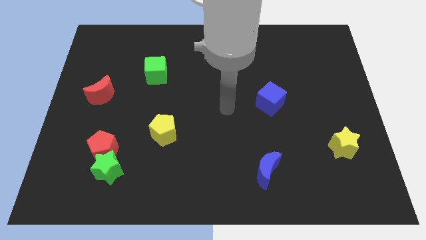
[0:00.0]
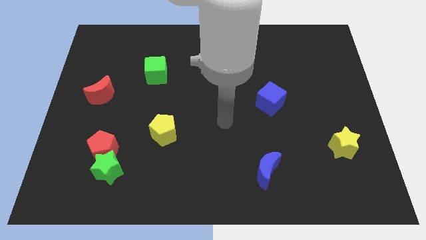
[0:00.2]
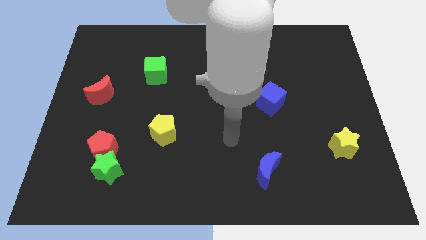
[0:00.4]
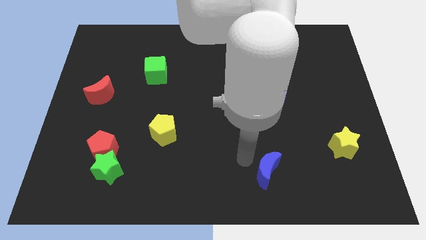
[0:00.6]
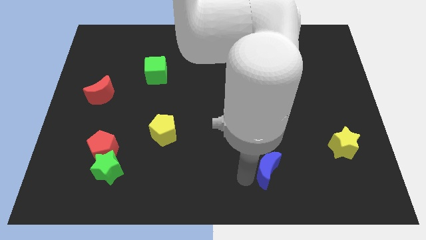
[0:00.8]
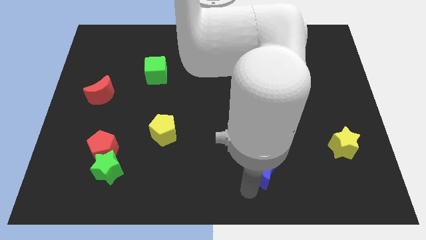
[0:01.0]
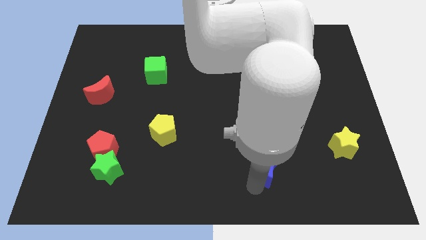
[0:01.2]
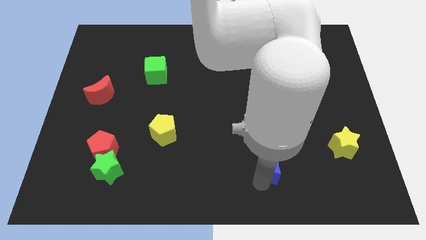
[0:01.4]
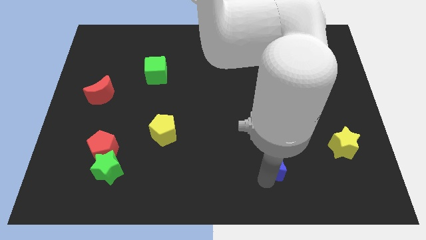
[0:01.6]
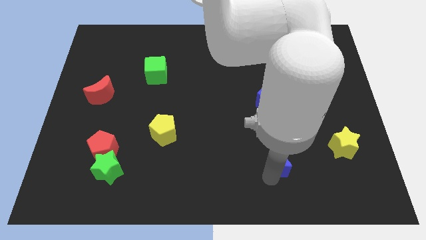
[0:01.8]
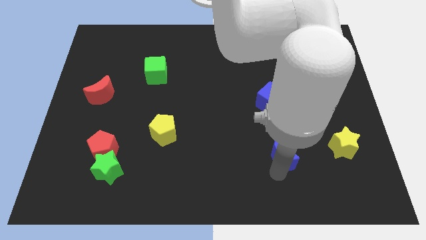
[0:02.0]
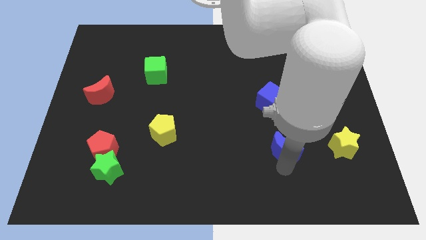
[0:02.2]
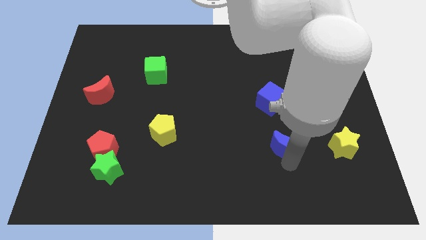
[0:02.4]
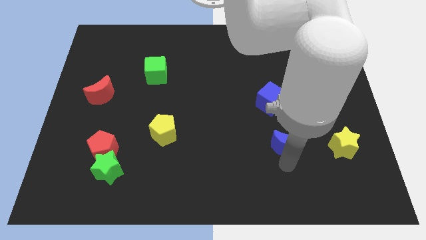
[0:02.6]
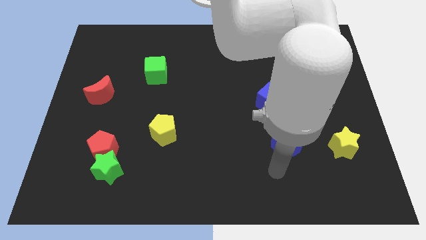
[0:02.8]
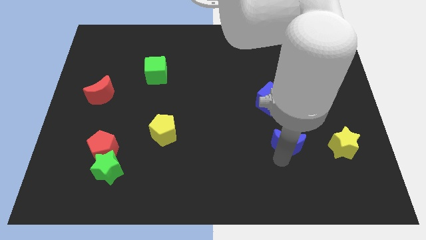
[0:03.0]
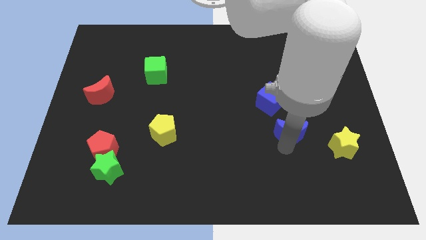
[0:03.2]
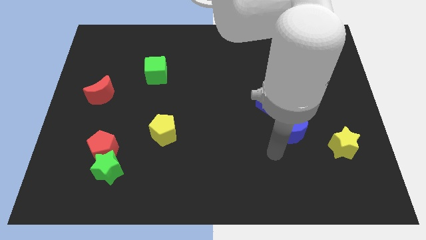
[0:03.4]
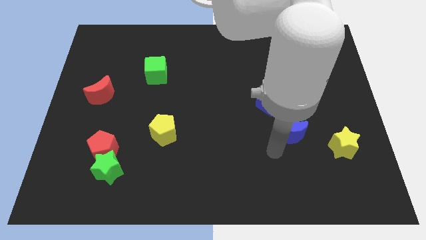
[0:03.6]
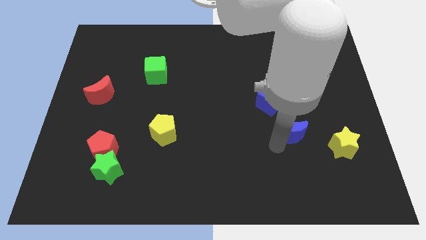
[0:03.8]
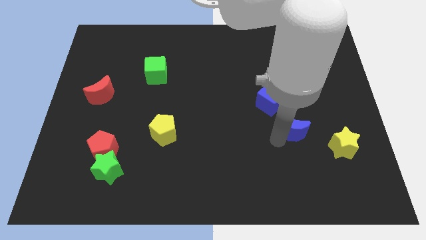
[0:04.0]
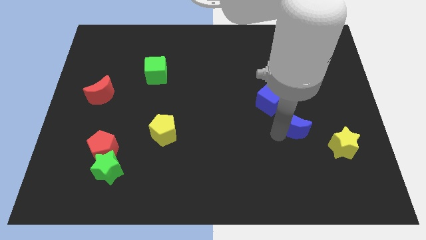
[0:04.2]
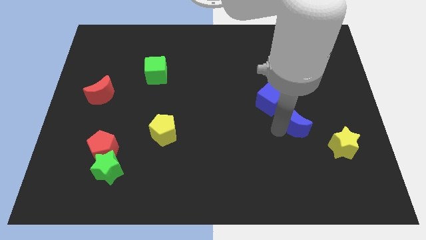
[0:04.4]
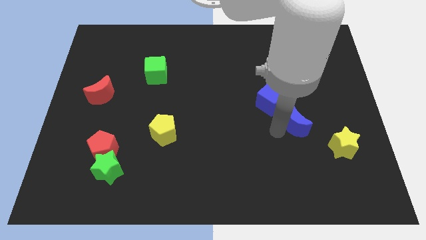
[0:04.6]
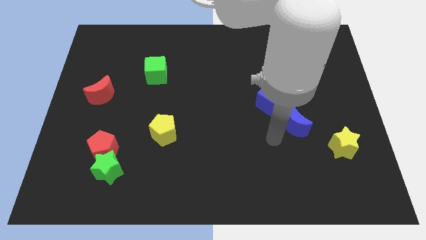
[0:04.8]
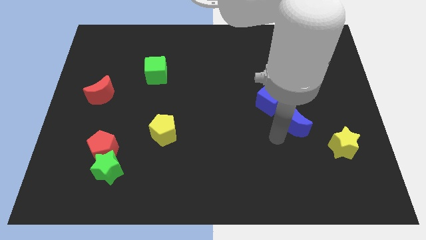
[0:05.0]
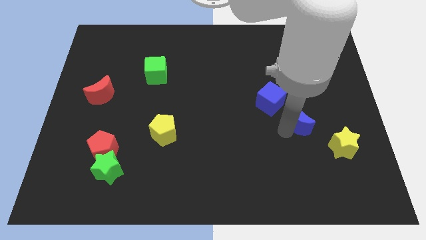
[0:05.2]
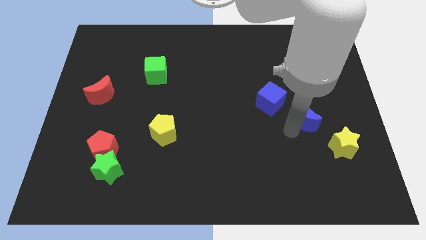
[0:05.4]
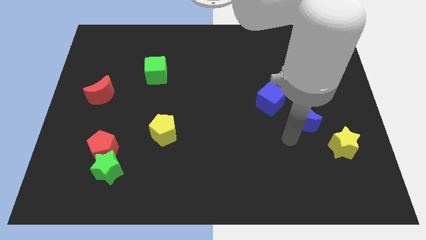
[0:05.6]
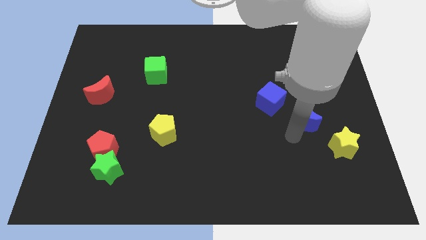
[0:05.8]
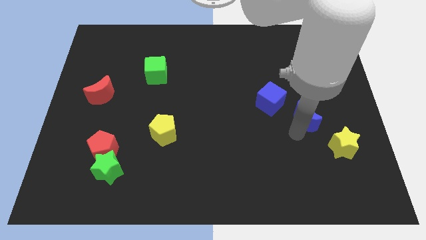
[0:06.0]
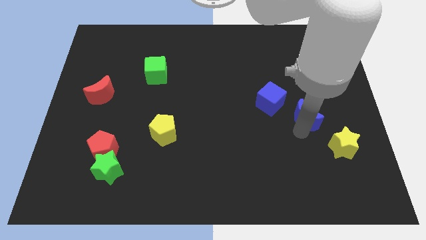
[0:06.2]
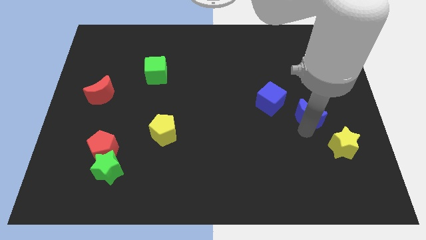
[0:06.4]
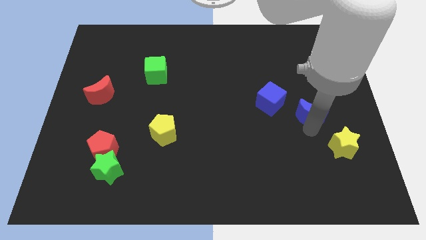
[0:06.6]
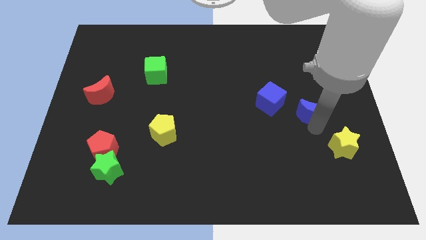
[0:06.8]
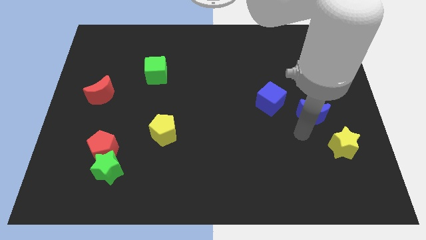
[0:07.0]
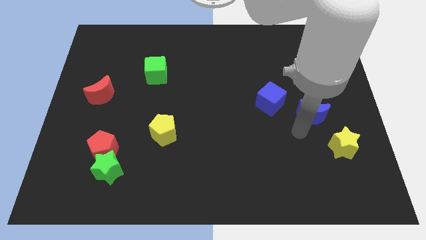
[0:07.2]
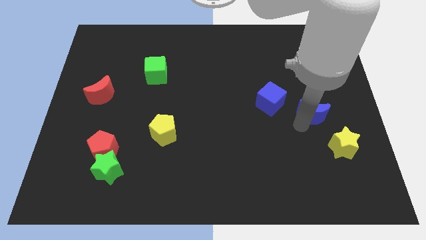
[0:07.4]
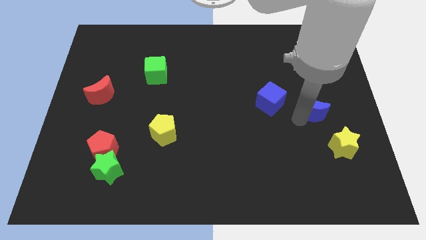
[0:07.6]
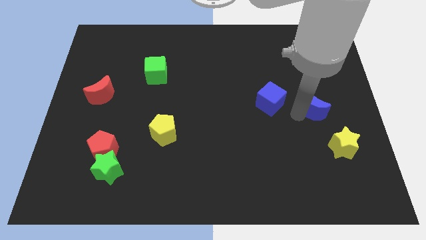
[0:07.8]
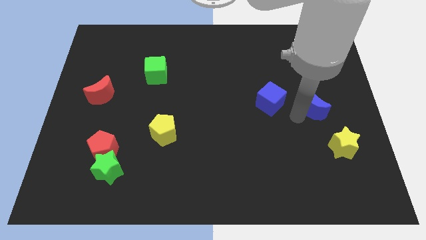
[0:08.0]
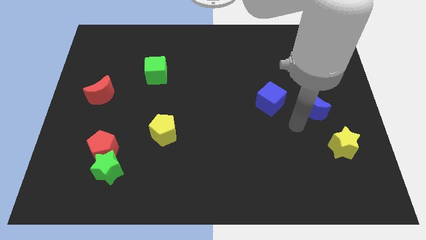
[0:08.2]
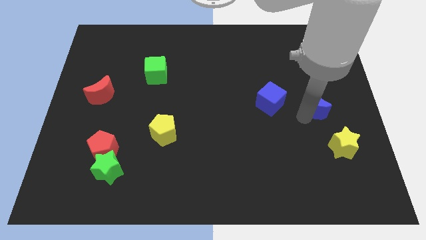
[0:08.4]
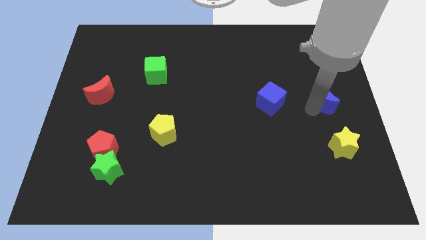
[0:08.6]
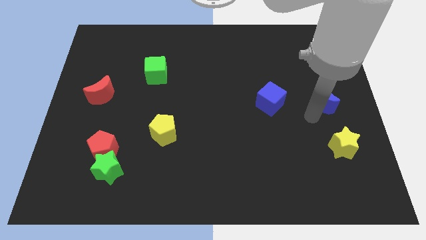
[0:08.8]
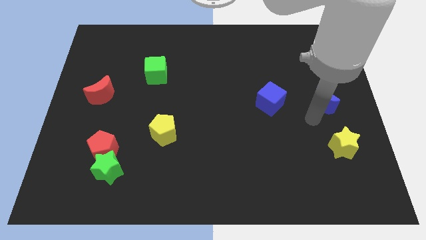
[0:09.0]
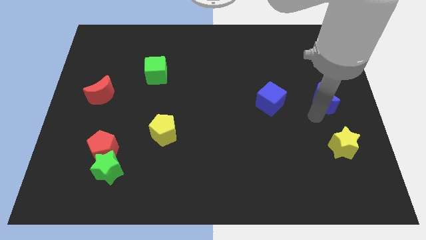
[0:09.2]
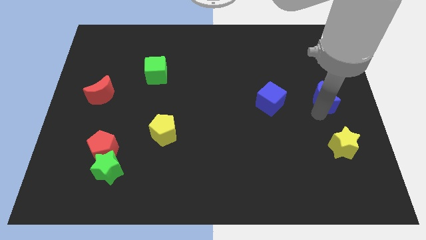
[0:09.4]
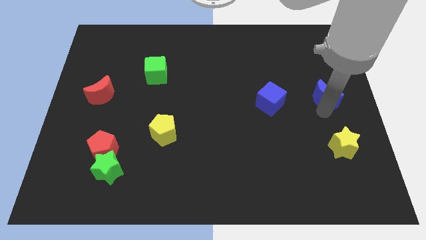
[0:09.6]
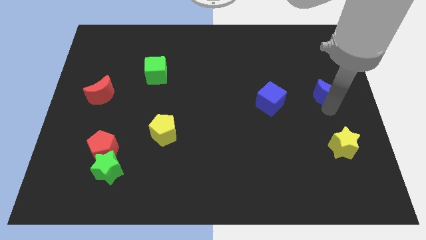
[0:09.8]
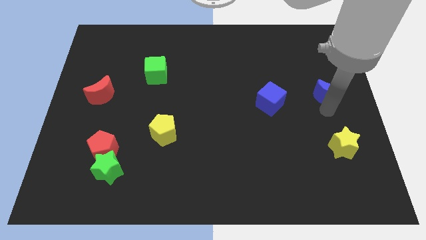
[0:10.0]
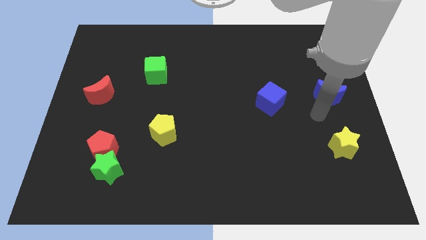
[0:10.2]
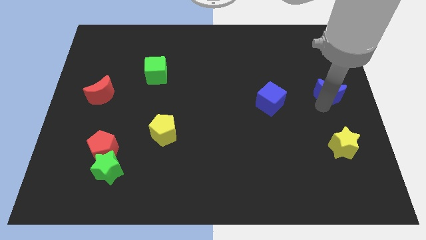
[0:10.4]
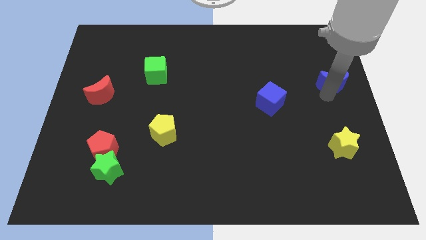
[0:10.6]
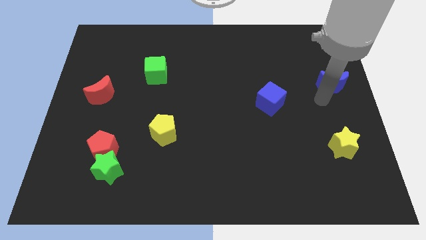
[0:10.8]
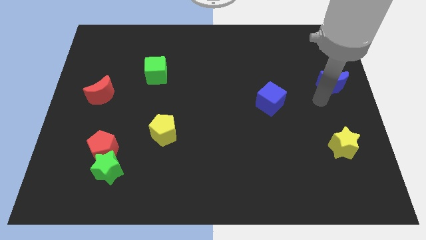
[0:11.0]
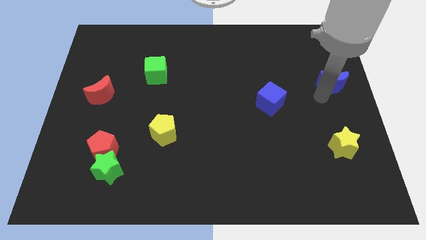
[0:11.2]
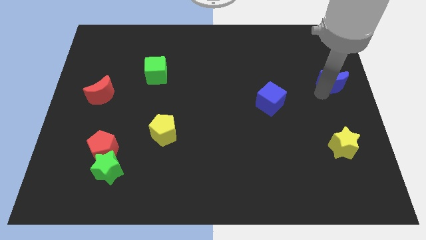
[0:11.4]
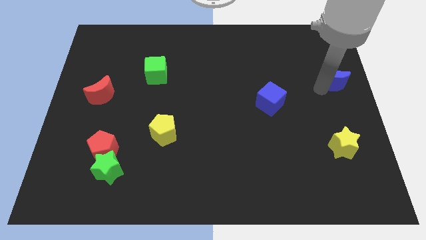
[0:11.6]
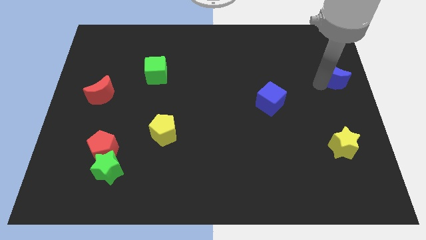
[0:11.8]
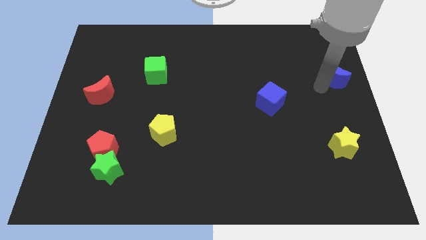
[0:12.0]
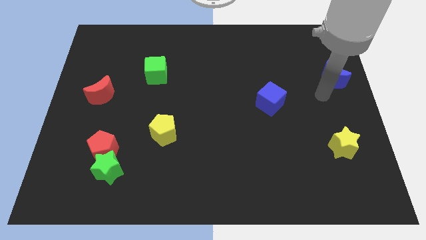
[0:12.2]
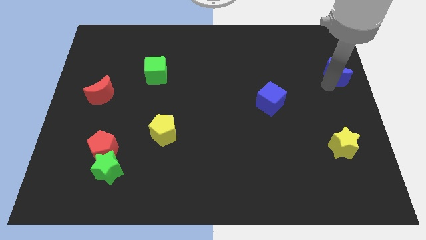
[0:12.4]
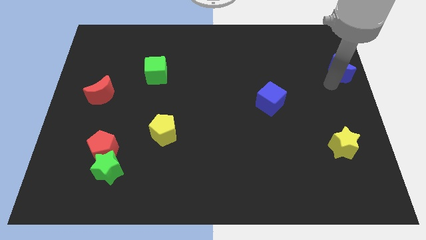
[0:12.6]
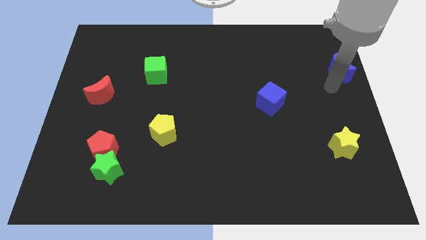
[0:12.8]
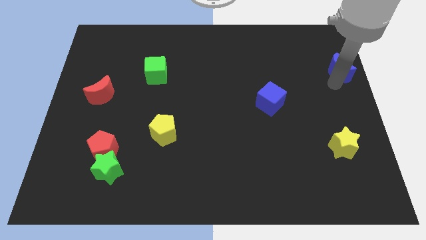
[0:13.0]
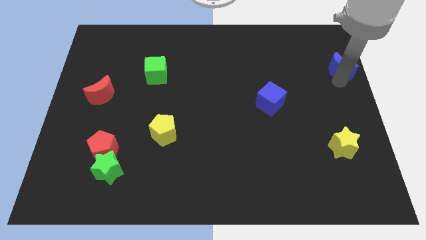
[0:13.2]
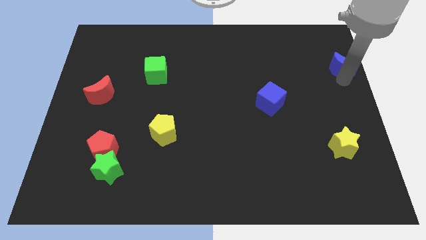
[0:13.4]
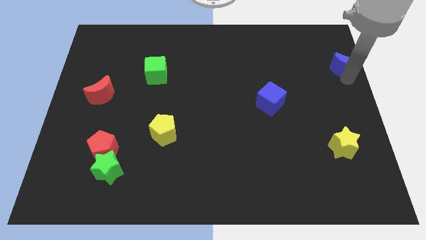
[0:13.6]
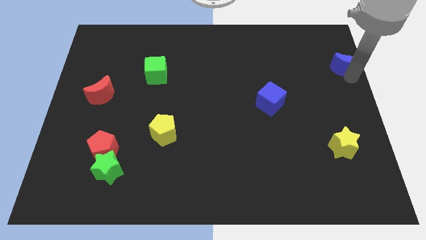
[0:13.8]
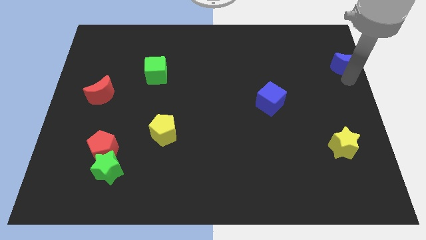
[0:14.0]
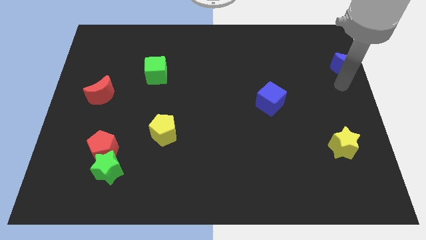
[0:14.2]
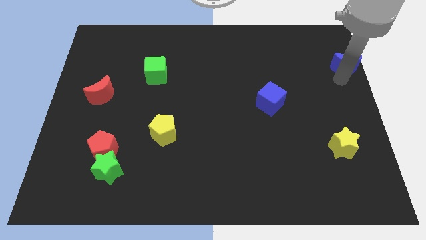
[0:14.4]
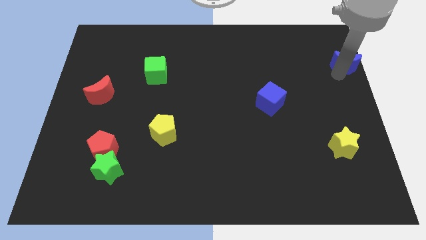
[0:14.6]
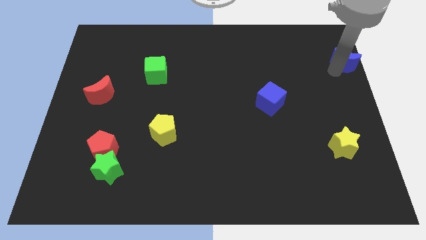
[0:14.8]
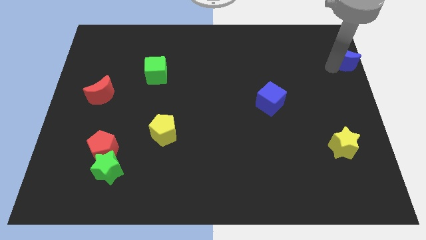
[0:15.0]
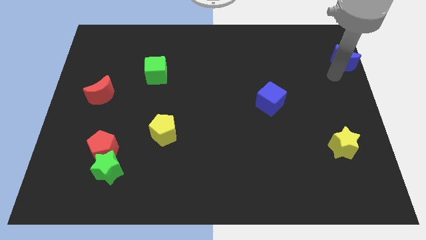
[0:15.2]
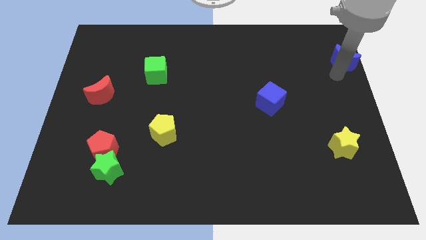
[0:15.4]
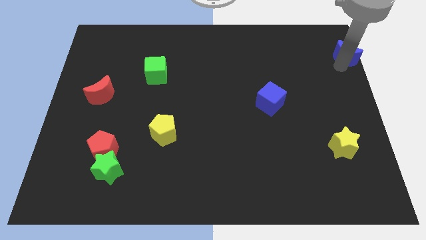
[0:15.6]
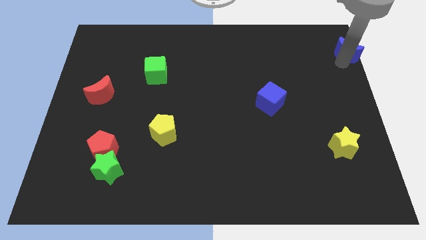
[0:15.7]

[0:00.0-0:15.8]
move the blue moon to the upper right corner
